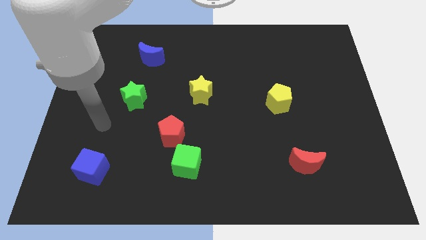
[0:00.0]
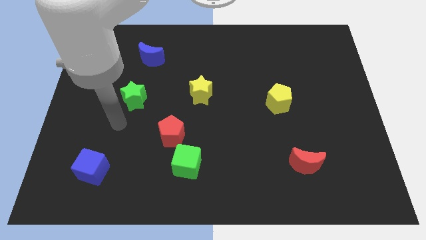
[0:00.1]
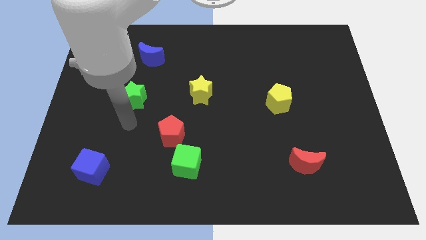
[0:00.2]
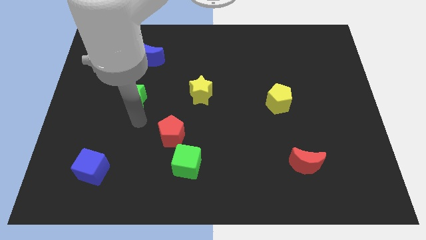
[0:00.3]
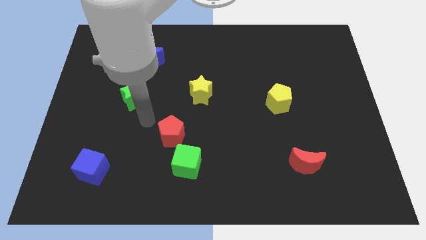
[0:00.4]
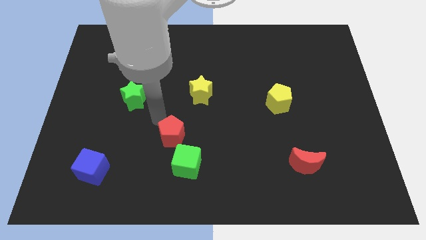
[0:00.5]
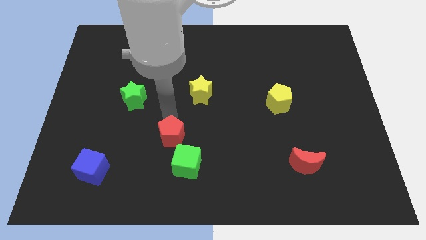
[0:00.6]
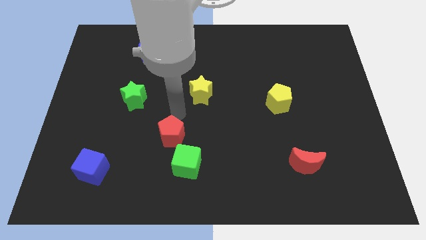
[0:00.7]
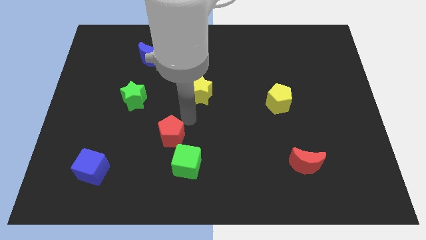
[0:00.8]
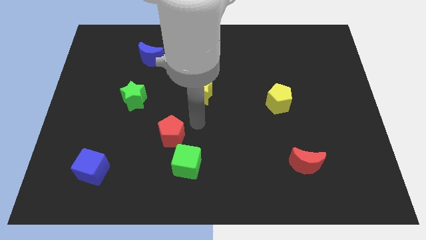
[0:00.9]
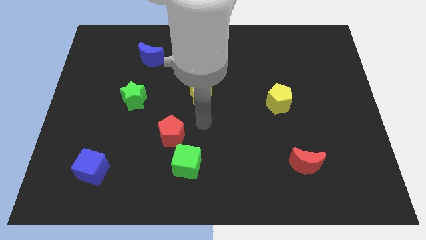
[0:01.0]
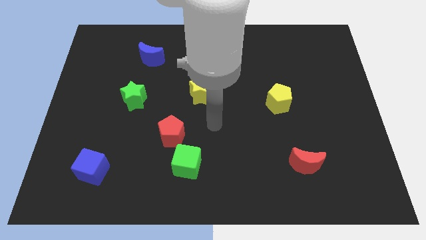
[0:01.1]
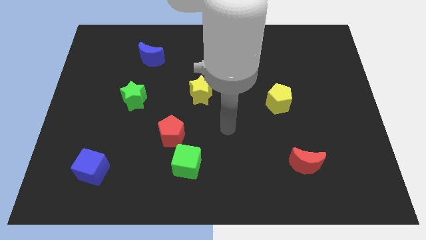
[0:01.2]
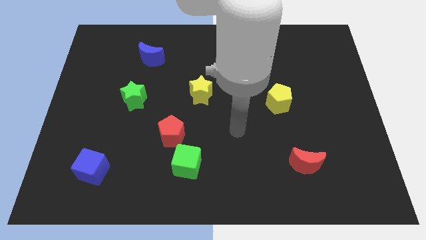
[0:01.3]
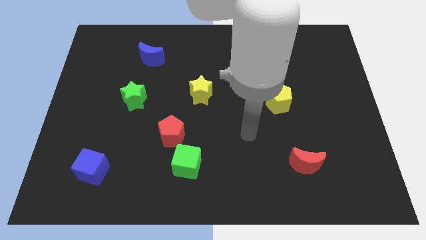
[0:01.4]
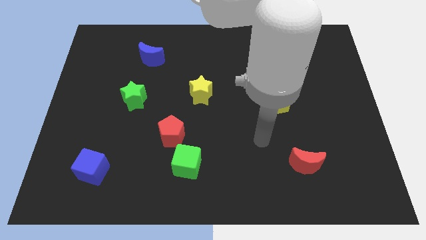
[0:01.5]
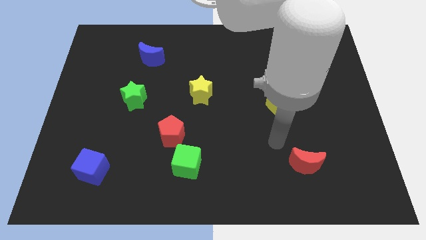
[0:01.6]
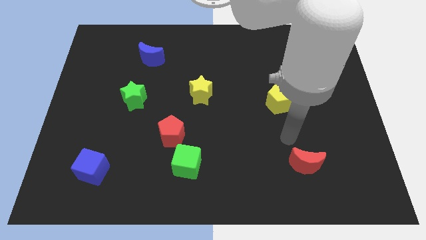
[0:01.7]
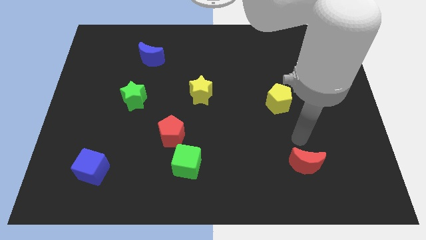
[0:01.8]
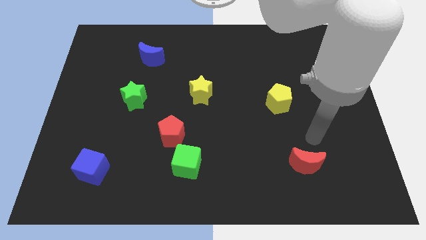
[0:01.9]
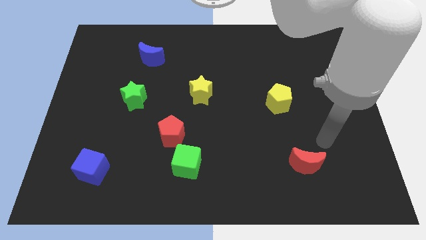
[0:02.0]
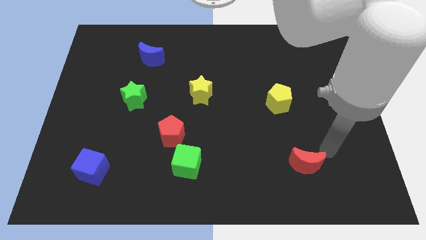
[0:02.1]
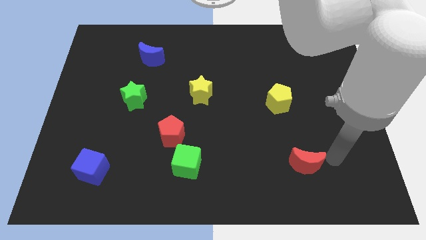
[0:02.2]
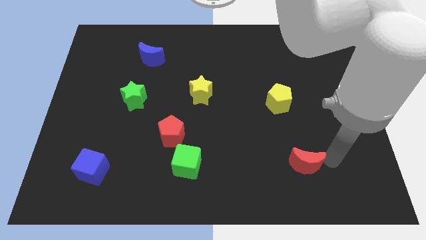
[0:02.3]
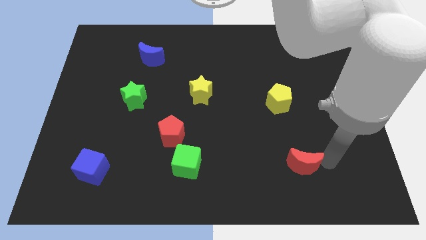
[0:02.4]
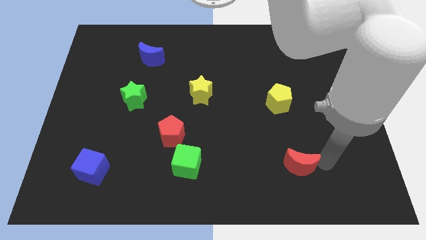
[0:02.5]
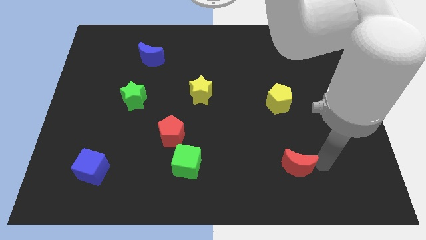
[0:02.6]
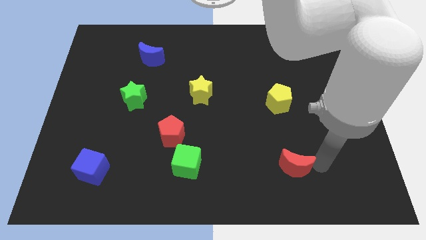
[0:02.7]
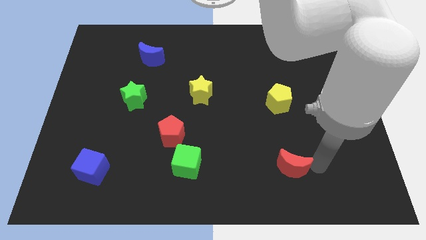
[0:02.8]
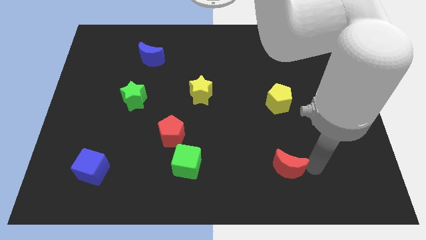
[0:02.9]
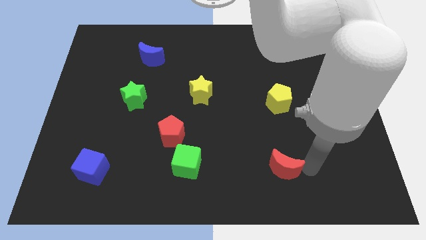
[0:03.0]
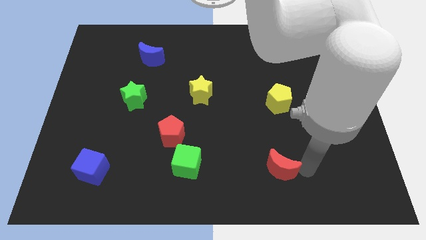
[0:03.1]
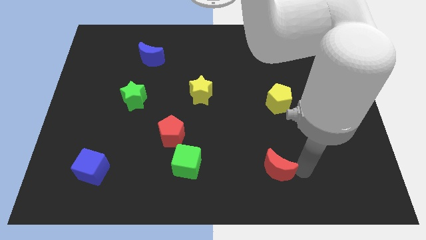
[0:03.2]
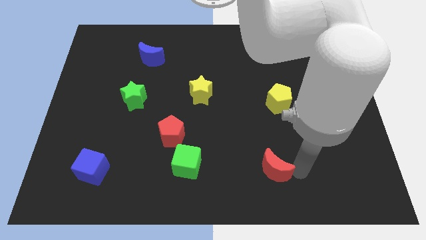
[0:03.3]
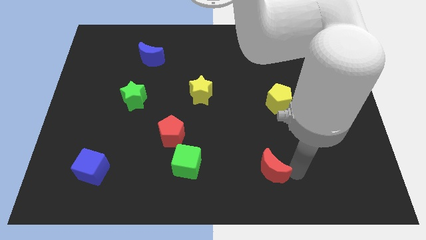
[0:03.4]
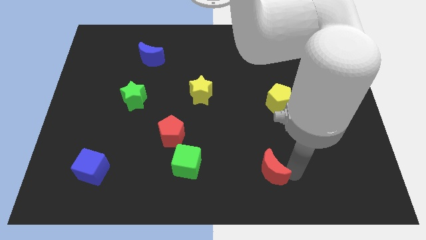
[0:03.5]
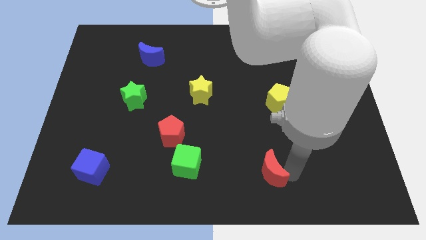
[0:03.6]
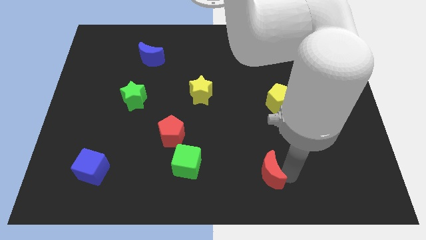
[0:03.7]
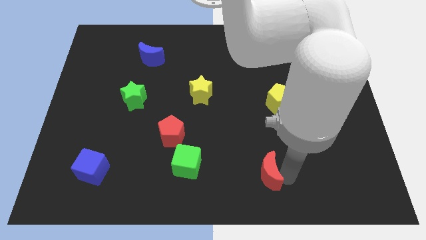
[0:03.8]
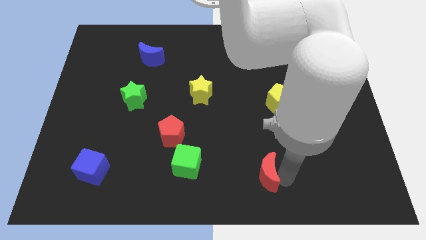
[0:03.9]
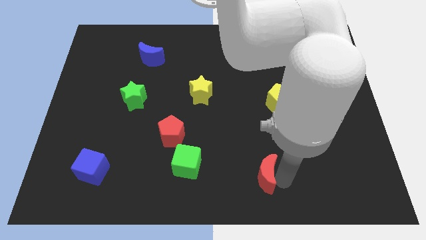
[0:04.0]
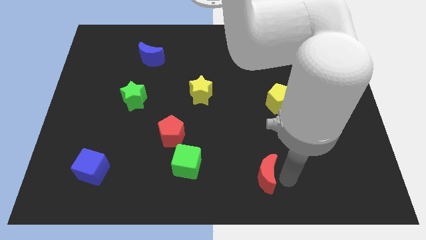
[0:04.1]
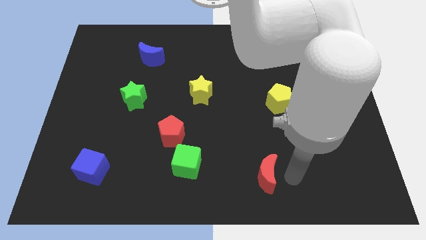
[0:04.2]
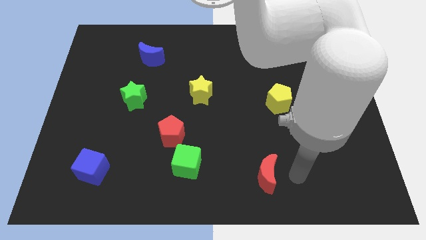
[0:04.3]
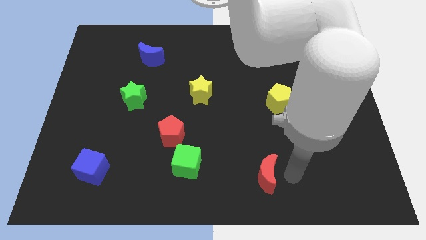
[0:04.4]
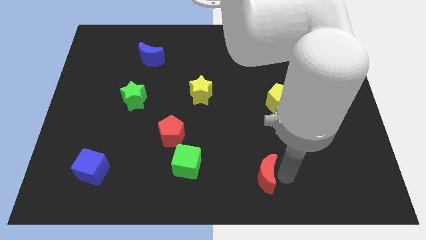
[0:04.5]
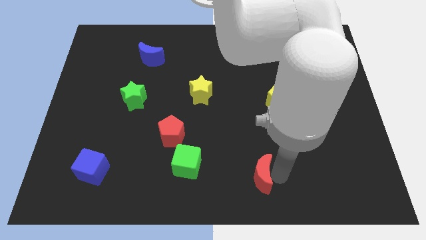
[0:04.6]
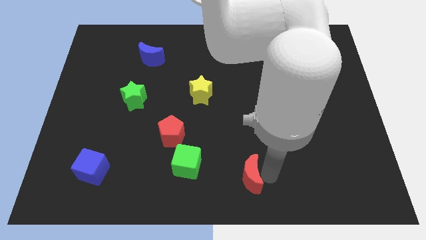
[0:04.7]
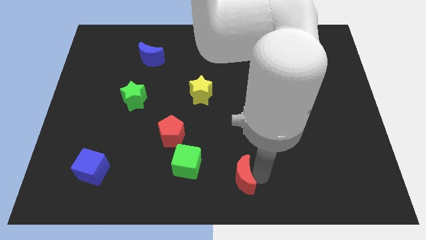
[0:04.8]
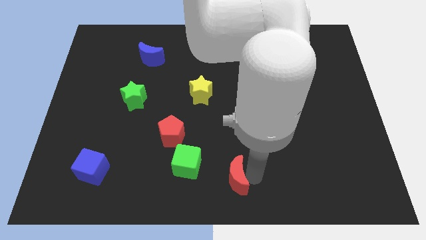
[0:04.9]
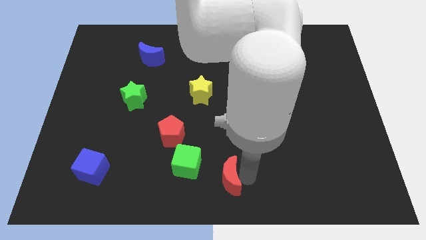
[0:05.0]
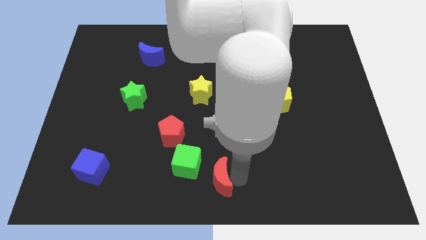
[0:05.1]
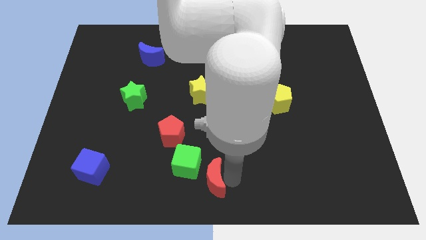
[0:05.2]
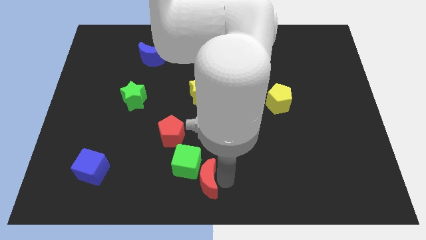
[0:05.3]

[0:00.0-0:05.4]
push the red moon to the left

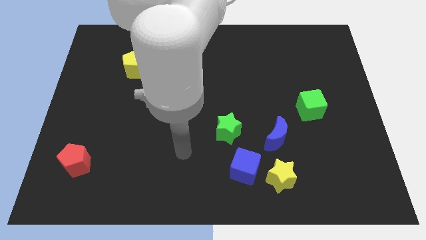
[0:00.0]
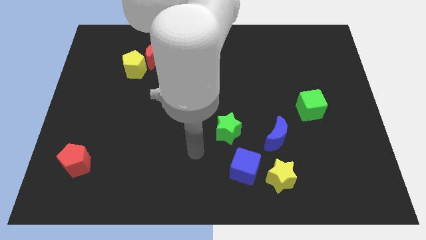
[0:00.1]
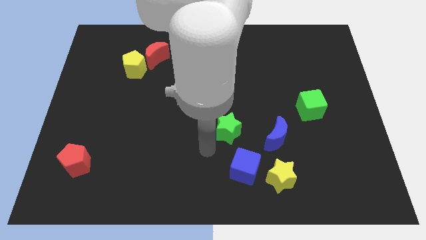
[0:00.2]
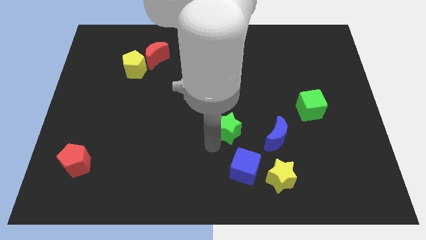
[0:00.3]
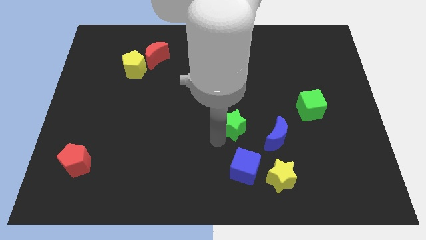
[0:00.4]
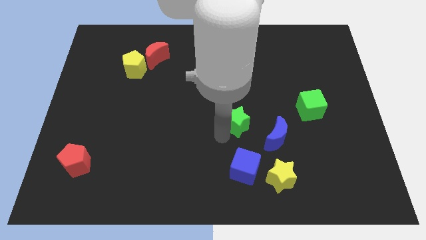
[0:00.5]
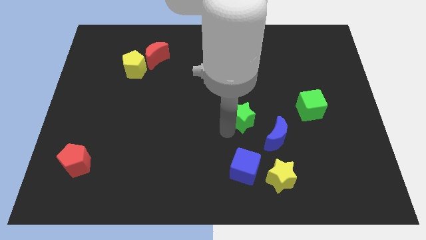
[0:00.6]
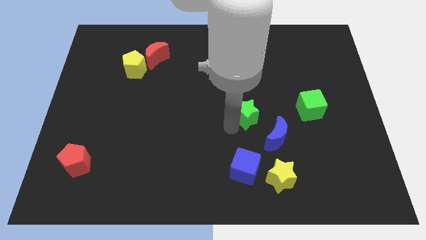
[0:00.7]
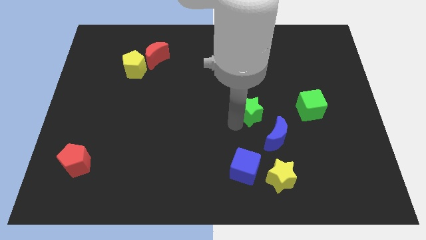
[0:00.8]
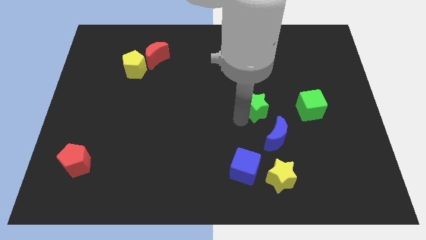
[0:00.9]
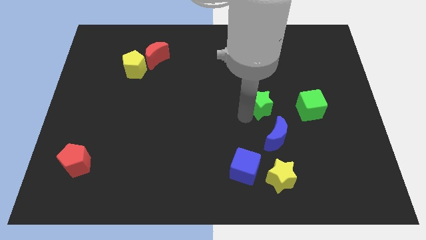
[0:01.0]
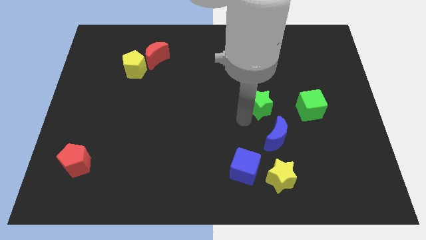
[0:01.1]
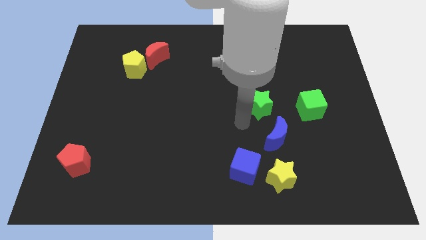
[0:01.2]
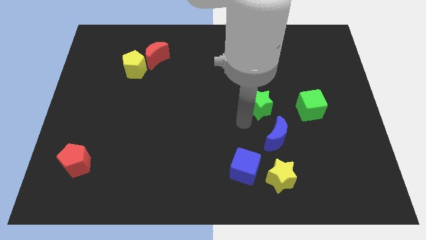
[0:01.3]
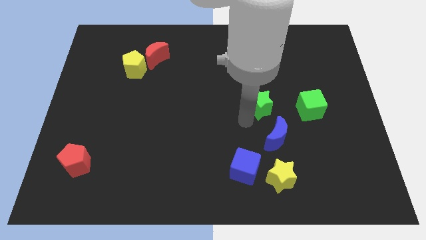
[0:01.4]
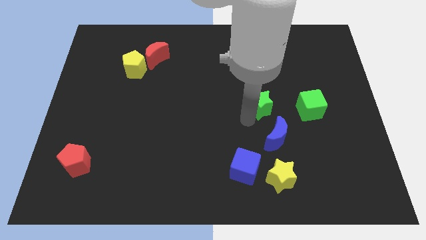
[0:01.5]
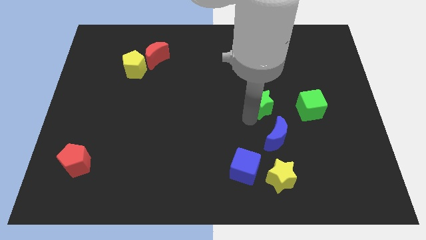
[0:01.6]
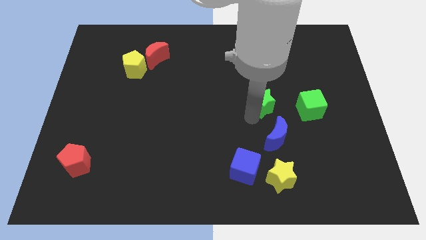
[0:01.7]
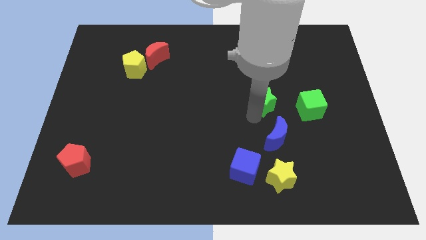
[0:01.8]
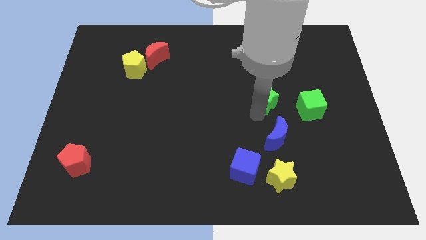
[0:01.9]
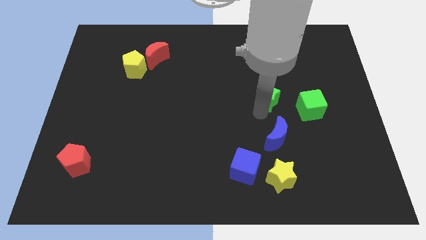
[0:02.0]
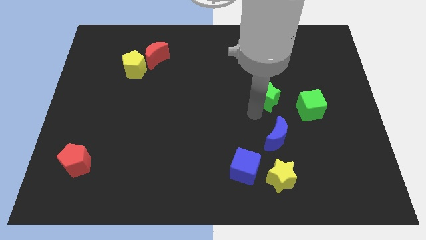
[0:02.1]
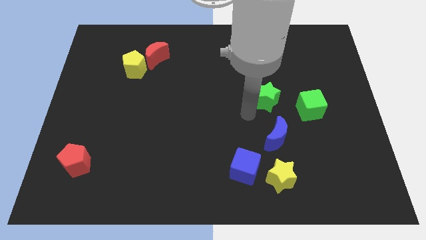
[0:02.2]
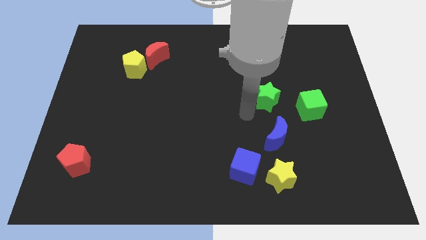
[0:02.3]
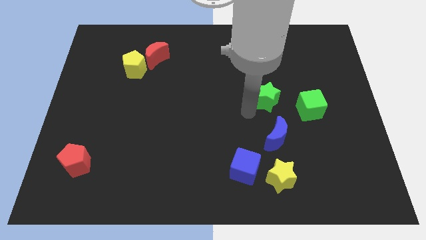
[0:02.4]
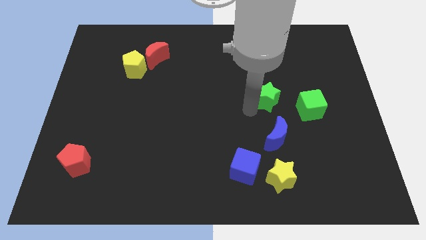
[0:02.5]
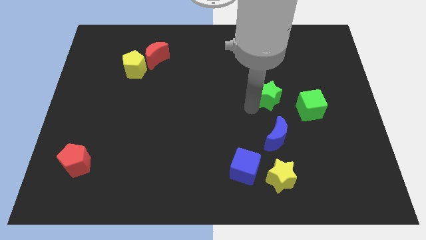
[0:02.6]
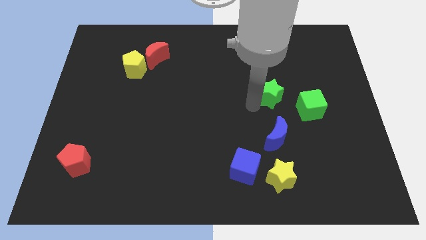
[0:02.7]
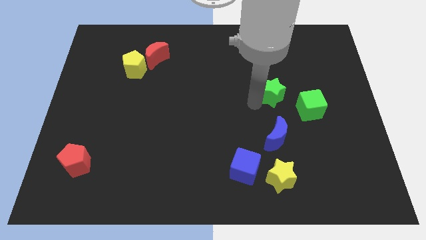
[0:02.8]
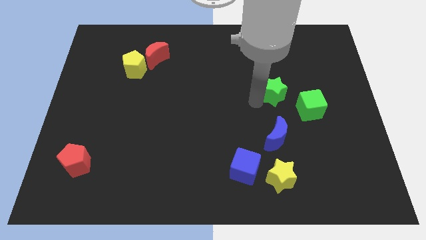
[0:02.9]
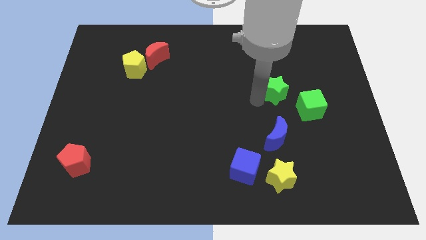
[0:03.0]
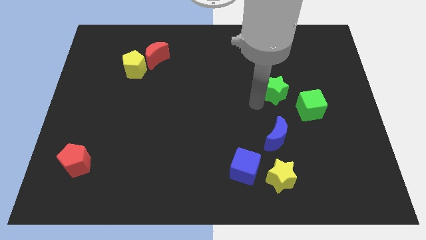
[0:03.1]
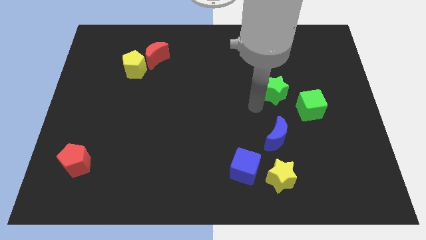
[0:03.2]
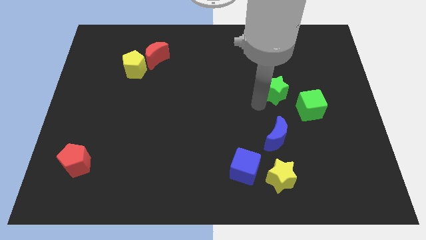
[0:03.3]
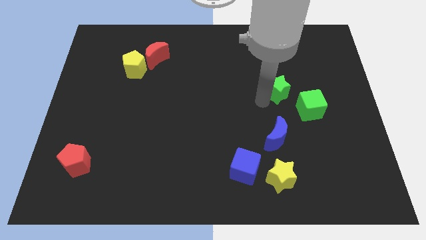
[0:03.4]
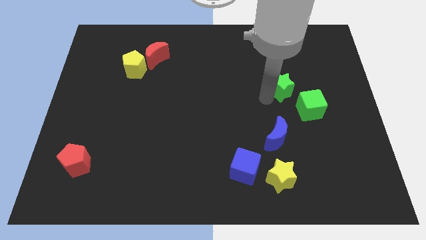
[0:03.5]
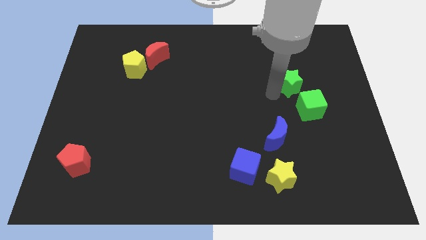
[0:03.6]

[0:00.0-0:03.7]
slide the green star upwards and to the right diagonally
